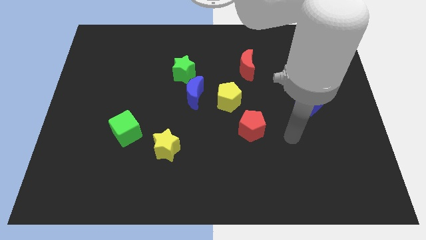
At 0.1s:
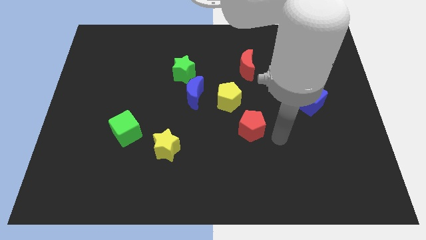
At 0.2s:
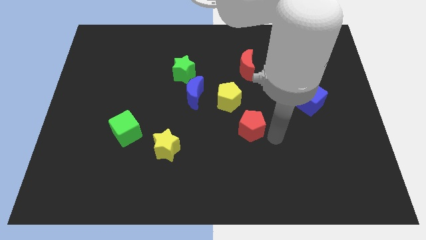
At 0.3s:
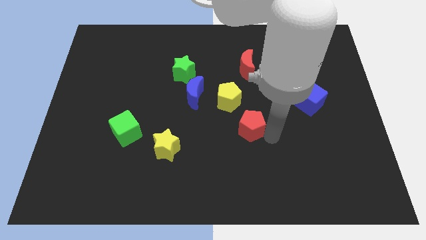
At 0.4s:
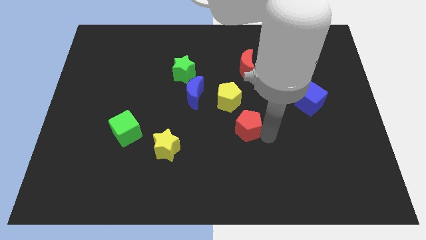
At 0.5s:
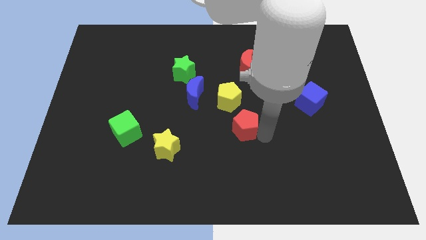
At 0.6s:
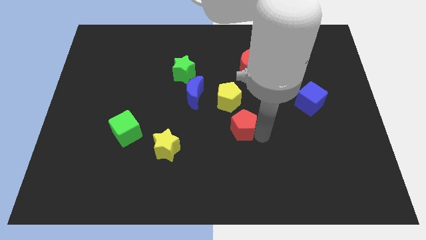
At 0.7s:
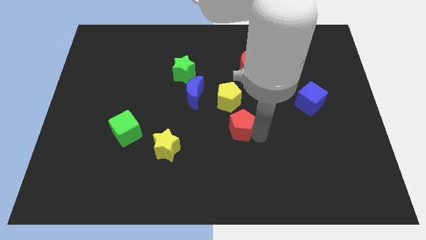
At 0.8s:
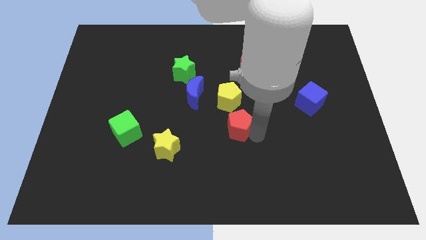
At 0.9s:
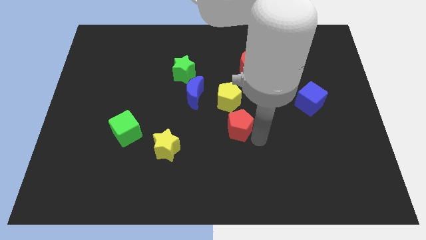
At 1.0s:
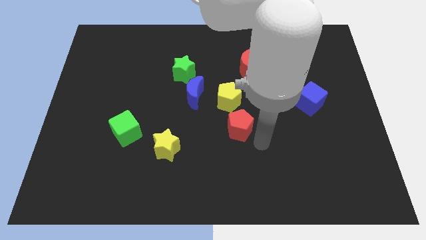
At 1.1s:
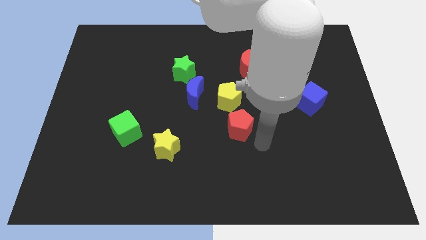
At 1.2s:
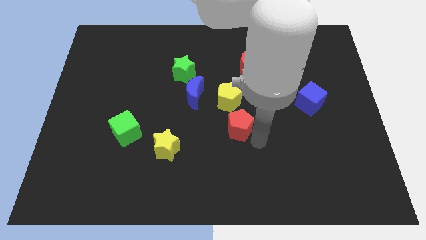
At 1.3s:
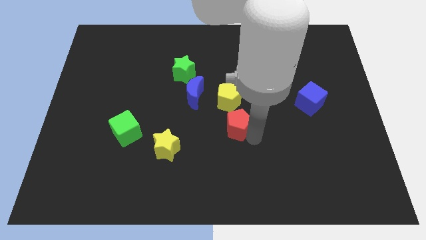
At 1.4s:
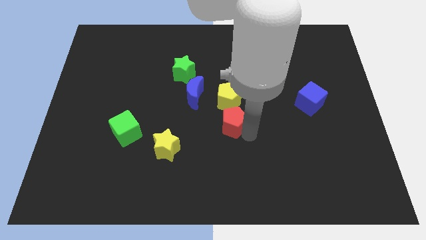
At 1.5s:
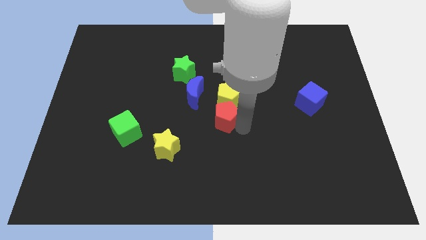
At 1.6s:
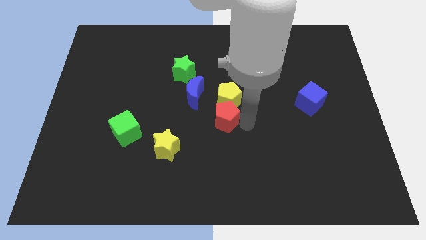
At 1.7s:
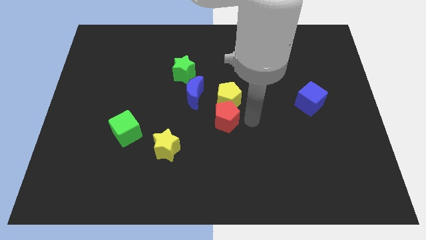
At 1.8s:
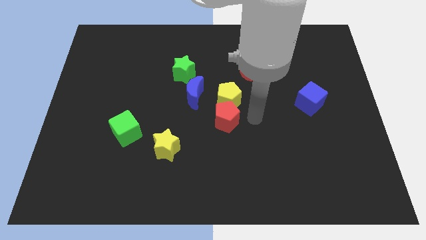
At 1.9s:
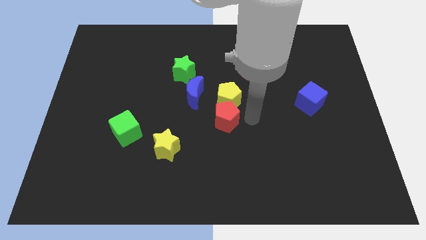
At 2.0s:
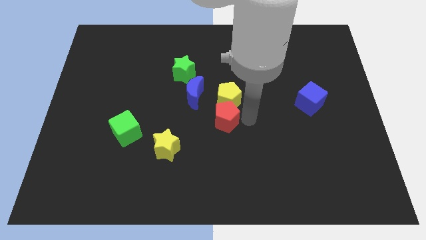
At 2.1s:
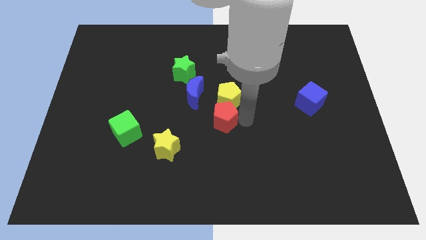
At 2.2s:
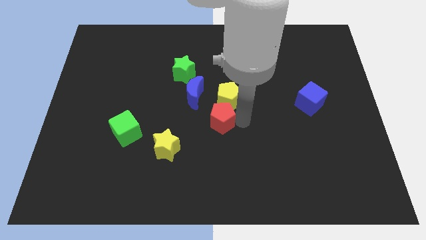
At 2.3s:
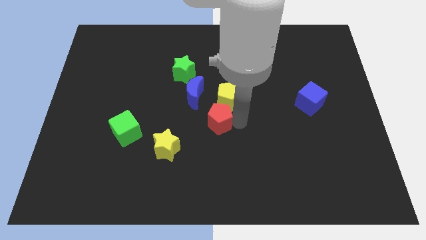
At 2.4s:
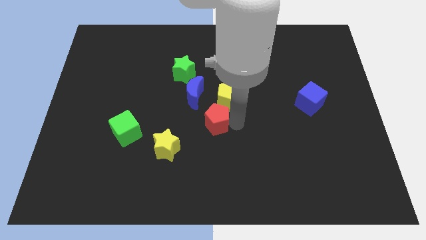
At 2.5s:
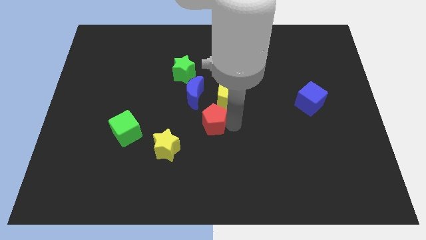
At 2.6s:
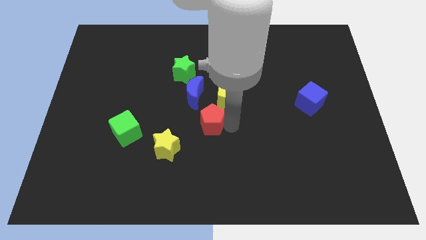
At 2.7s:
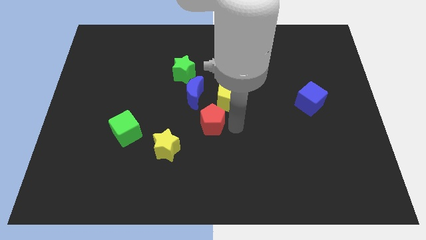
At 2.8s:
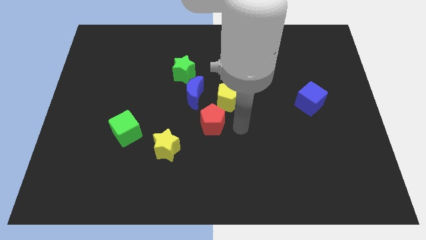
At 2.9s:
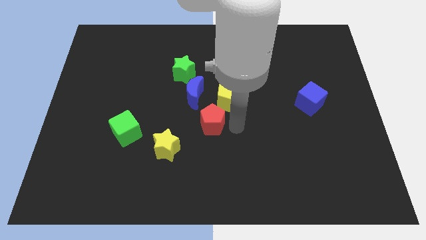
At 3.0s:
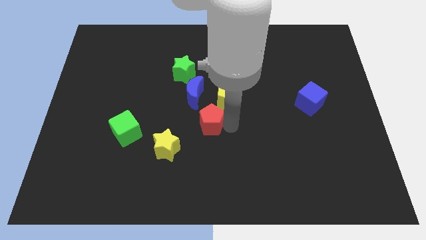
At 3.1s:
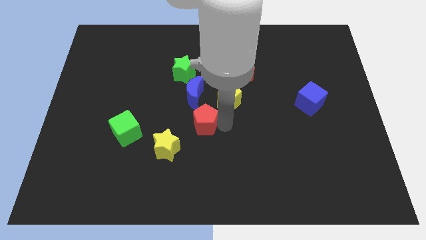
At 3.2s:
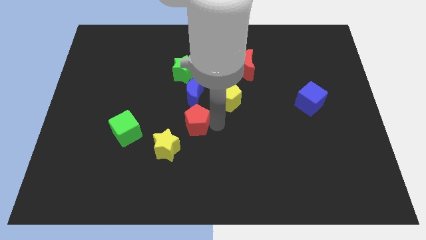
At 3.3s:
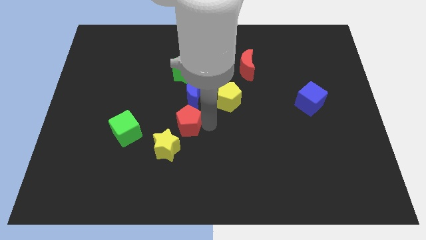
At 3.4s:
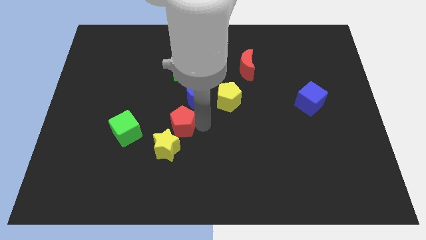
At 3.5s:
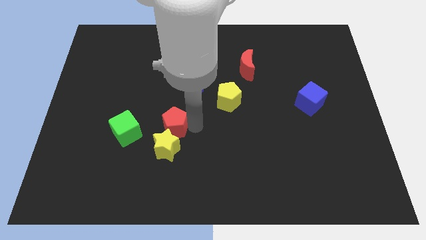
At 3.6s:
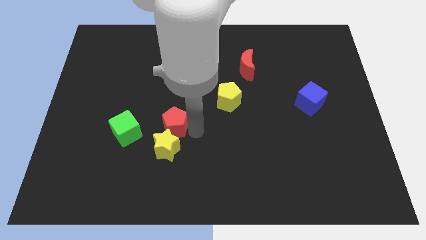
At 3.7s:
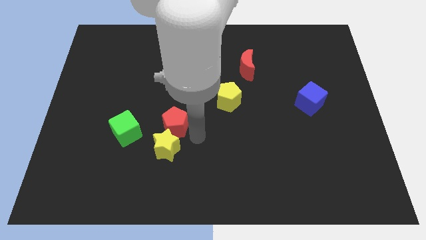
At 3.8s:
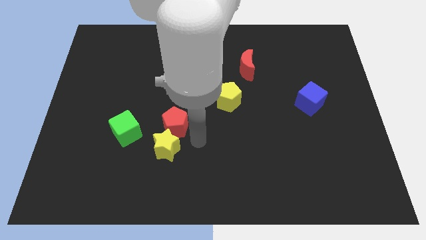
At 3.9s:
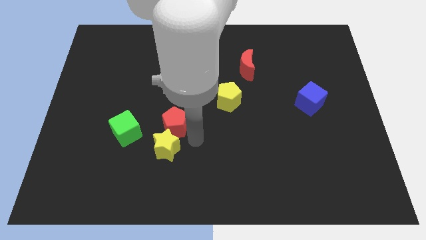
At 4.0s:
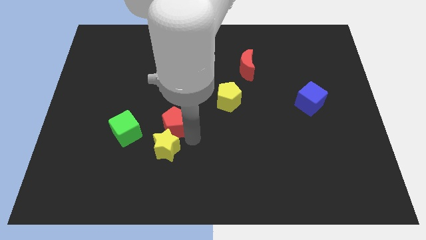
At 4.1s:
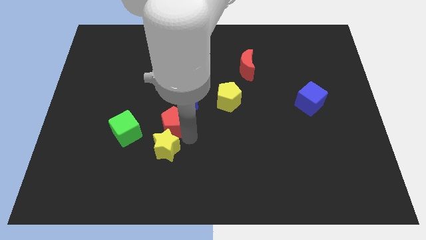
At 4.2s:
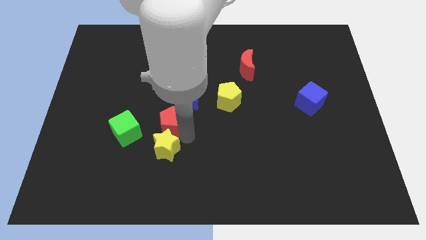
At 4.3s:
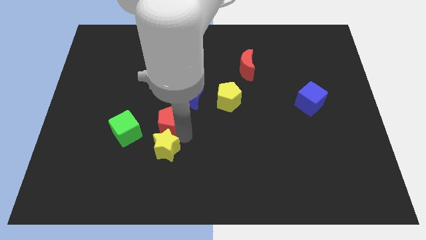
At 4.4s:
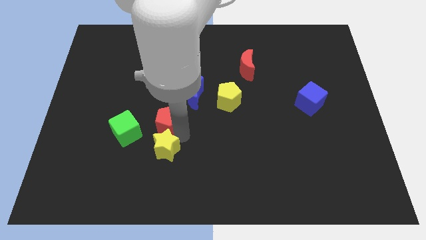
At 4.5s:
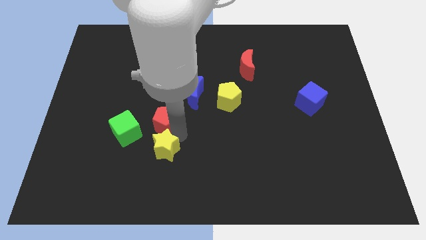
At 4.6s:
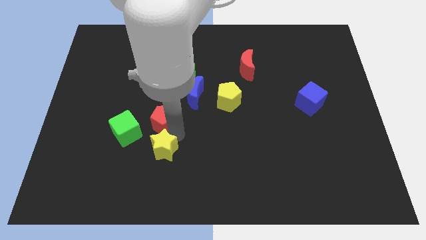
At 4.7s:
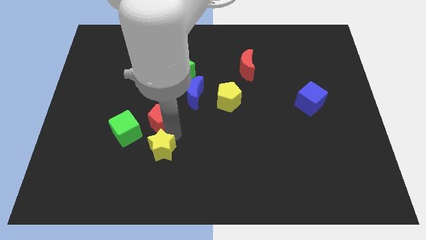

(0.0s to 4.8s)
push the red pentagon left

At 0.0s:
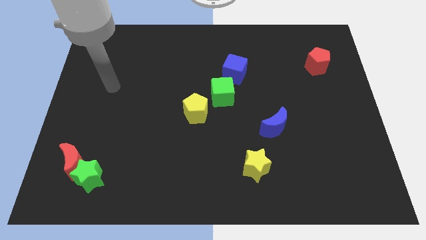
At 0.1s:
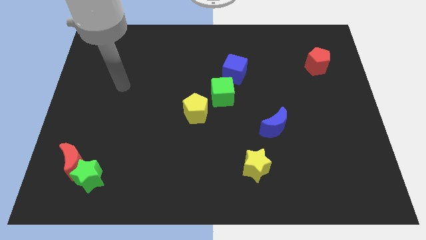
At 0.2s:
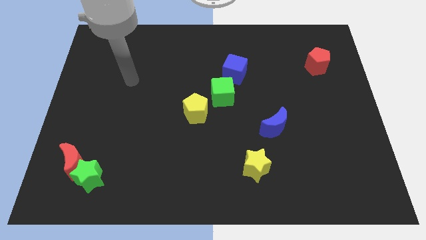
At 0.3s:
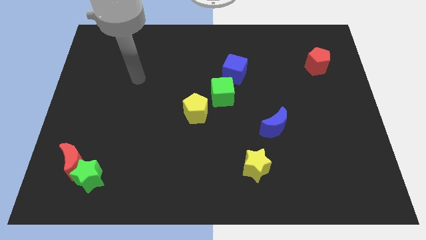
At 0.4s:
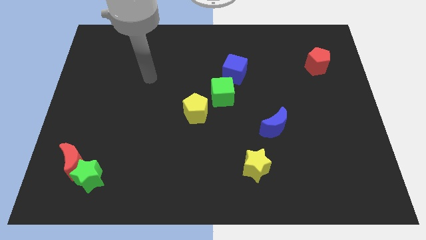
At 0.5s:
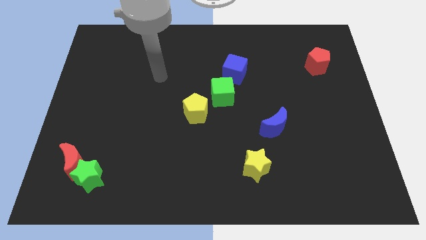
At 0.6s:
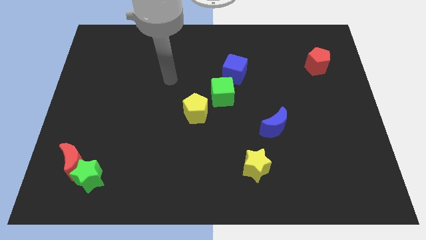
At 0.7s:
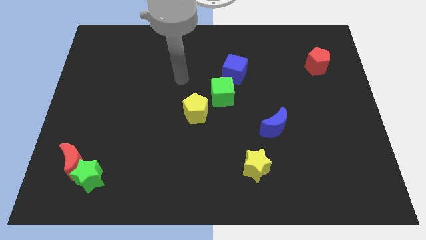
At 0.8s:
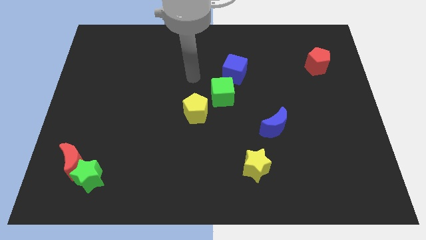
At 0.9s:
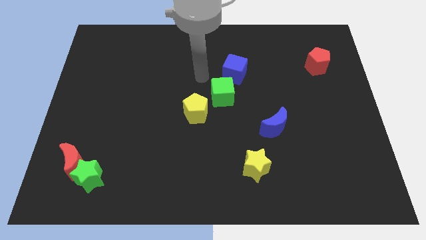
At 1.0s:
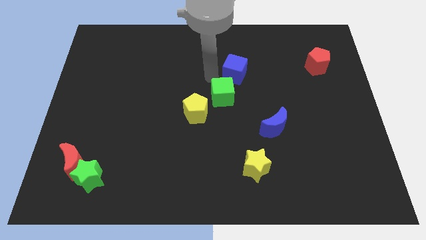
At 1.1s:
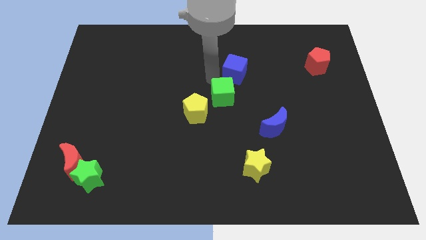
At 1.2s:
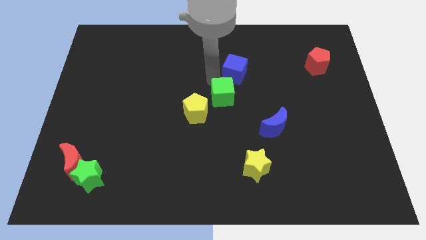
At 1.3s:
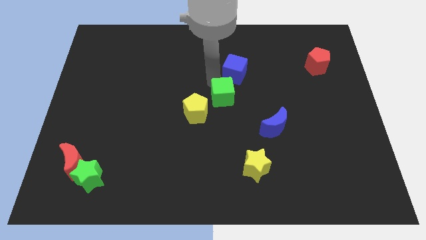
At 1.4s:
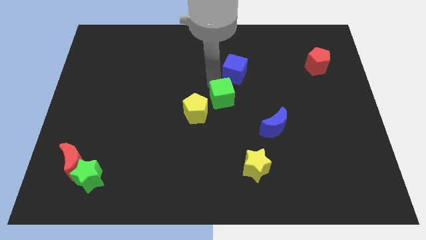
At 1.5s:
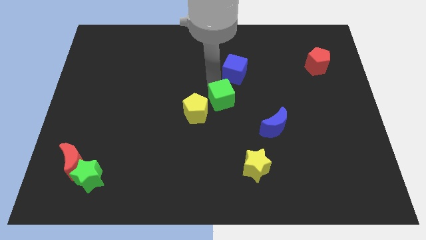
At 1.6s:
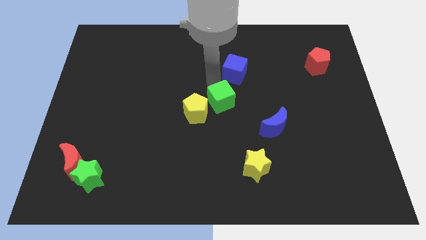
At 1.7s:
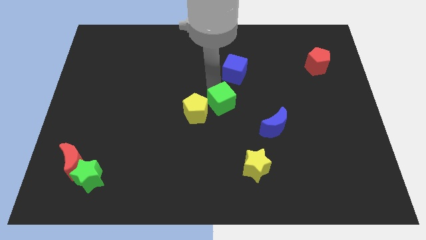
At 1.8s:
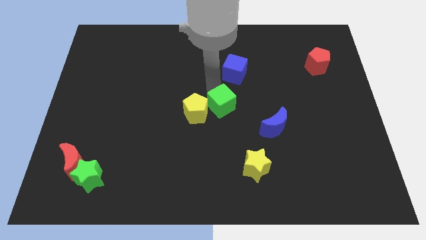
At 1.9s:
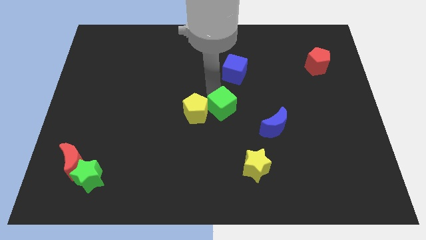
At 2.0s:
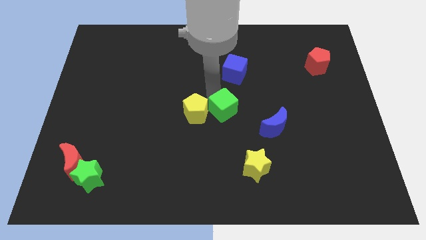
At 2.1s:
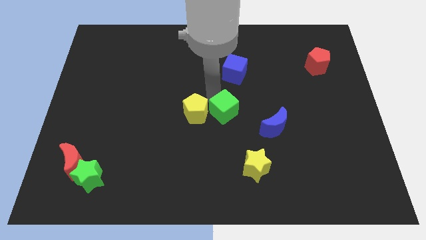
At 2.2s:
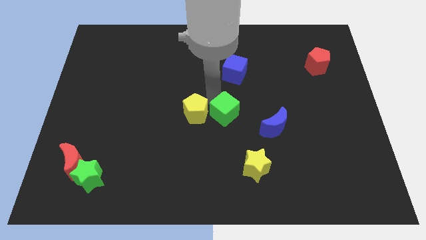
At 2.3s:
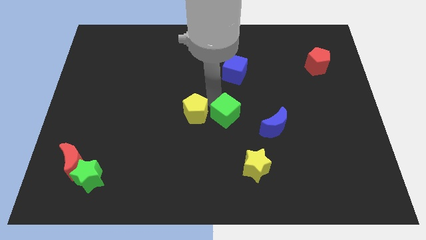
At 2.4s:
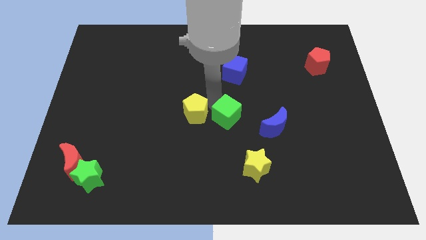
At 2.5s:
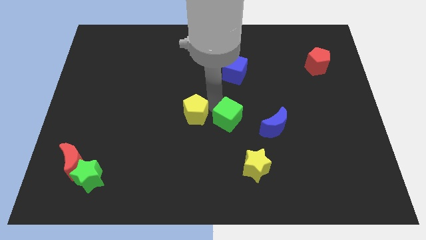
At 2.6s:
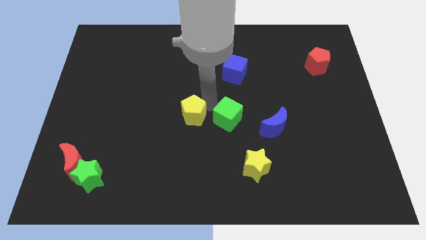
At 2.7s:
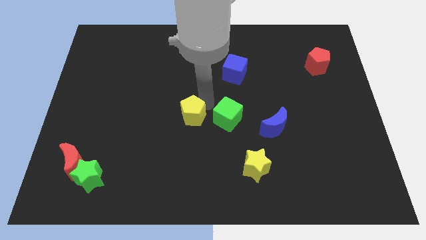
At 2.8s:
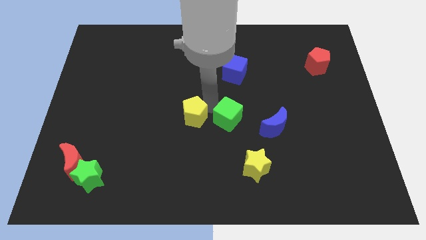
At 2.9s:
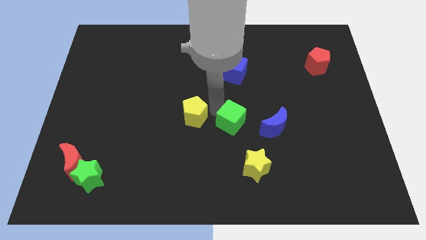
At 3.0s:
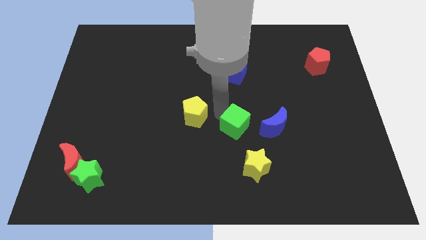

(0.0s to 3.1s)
slide the green cube somewhat downwards and right
